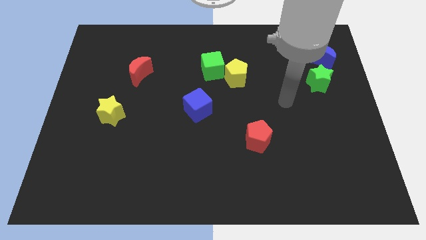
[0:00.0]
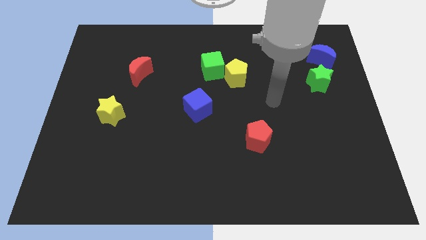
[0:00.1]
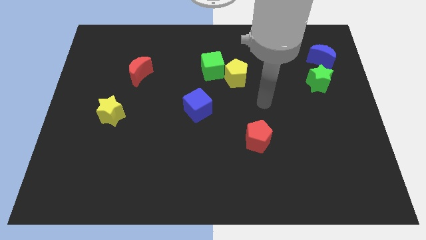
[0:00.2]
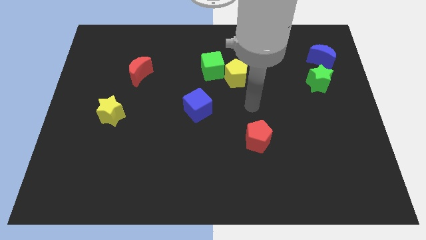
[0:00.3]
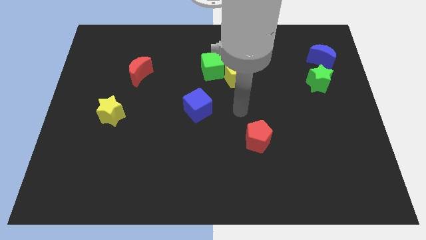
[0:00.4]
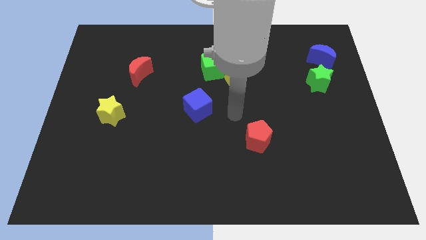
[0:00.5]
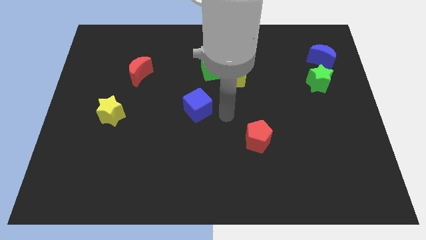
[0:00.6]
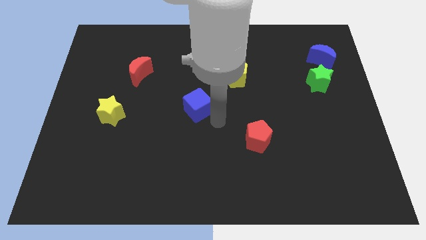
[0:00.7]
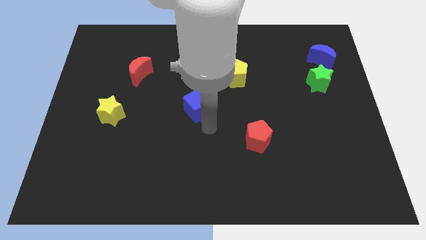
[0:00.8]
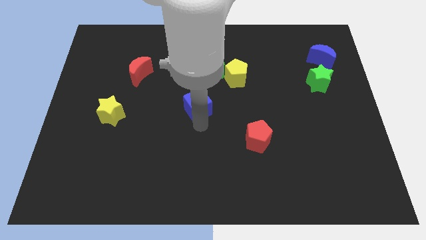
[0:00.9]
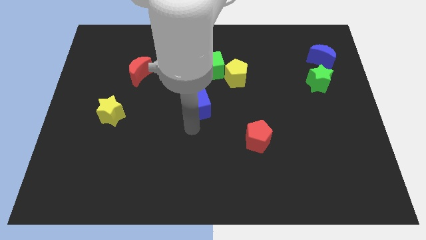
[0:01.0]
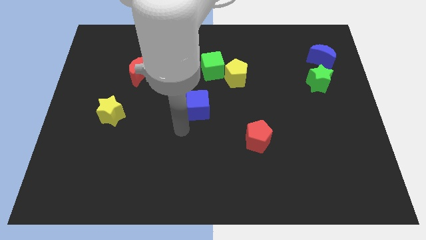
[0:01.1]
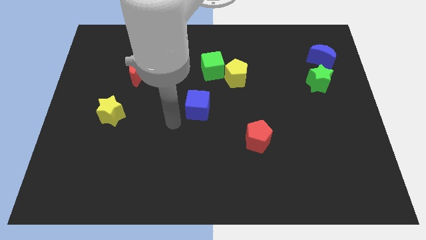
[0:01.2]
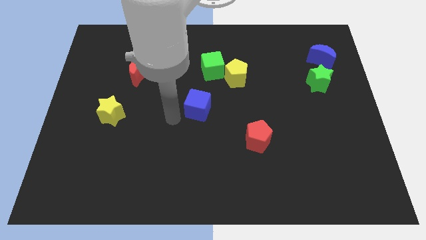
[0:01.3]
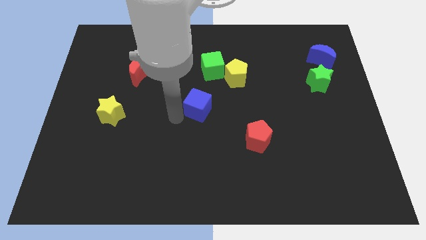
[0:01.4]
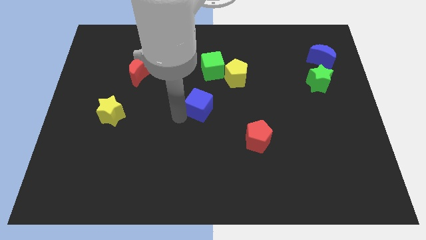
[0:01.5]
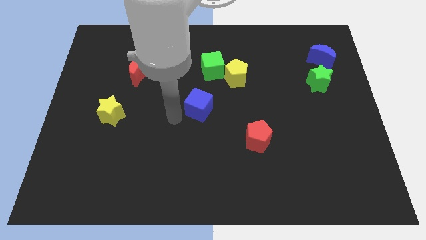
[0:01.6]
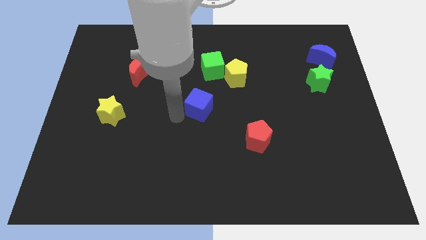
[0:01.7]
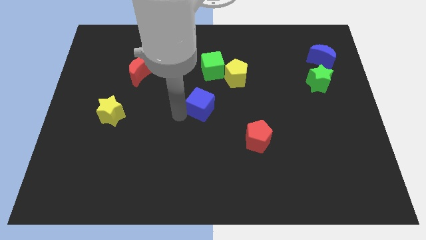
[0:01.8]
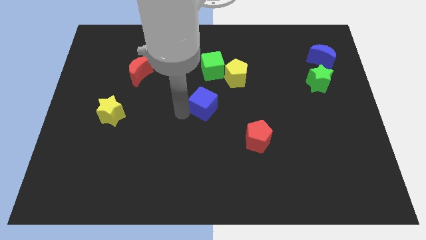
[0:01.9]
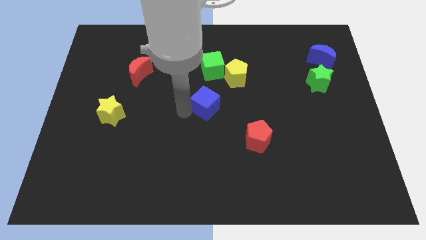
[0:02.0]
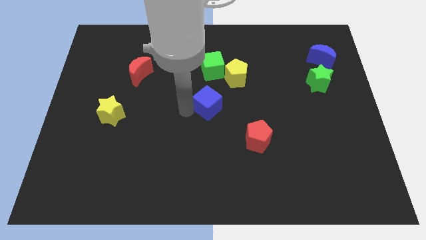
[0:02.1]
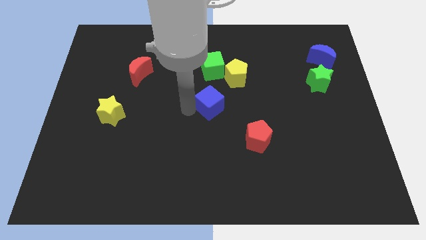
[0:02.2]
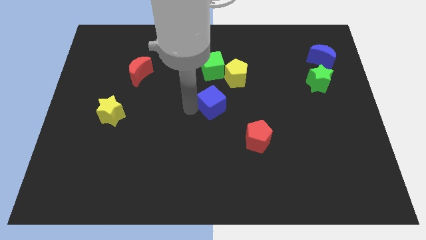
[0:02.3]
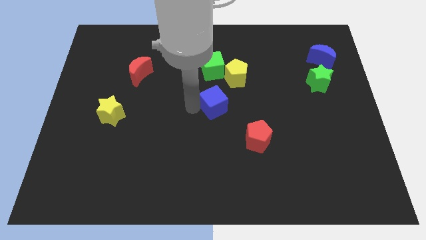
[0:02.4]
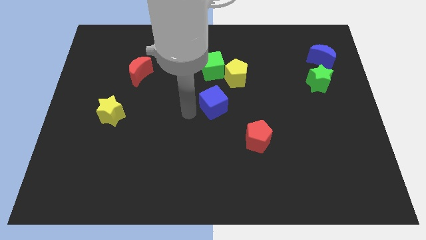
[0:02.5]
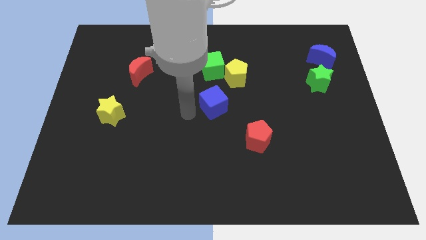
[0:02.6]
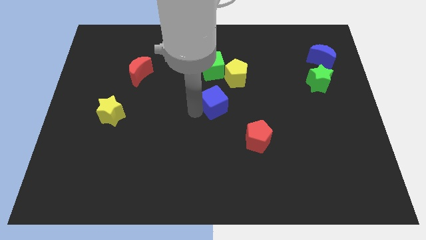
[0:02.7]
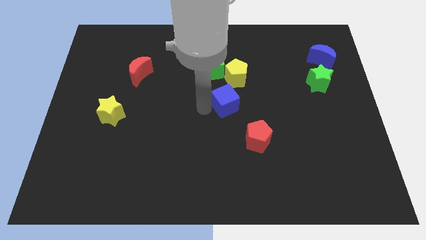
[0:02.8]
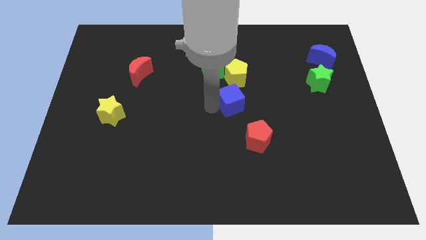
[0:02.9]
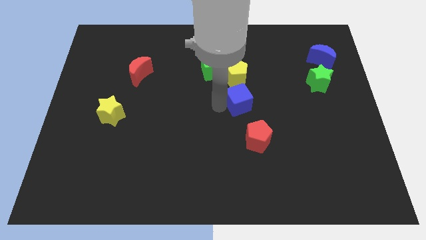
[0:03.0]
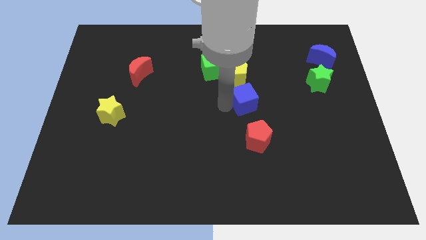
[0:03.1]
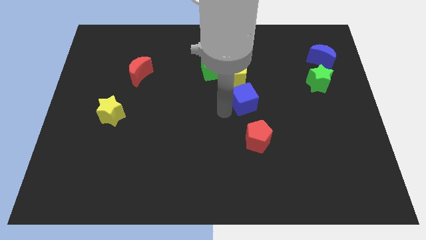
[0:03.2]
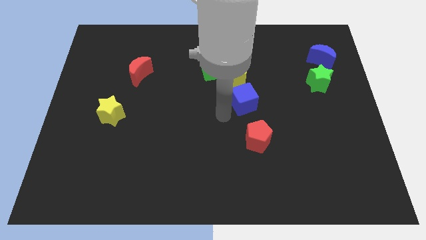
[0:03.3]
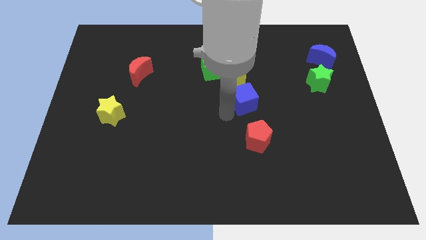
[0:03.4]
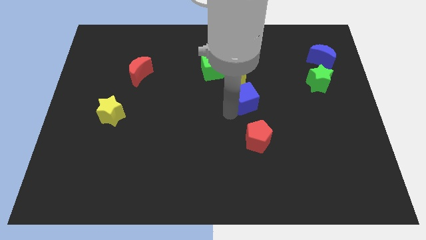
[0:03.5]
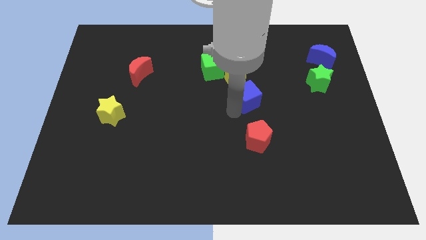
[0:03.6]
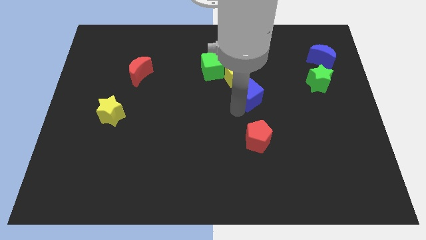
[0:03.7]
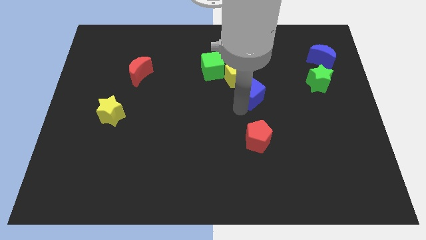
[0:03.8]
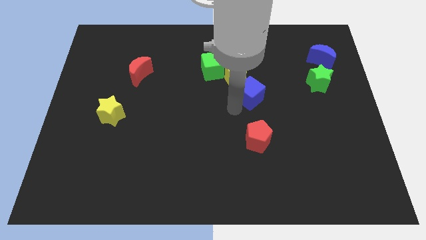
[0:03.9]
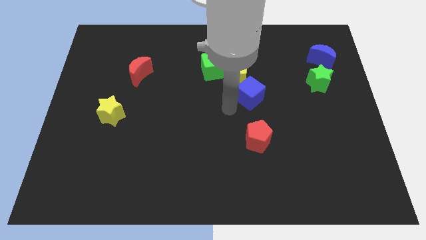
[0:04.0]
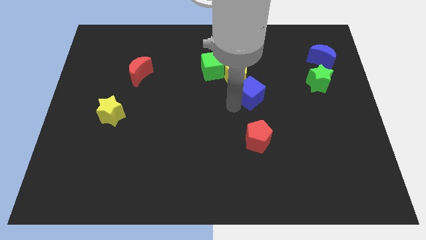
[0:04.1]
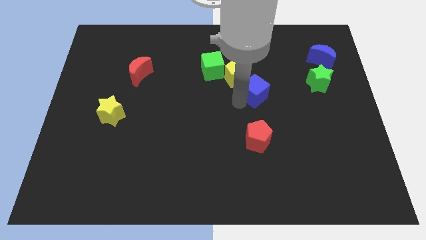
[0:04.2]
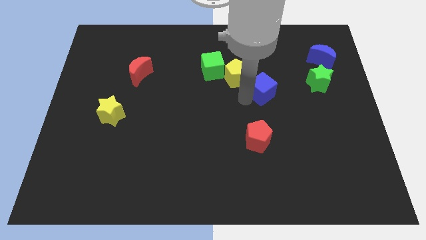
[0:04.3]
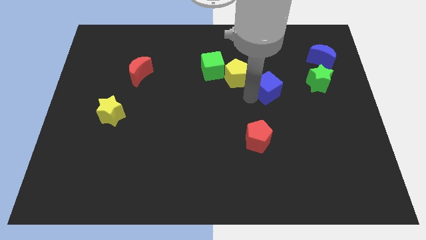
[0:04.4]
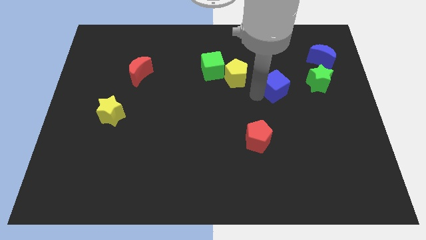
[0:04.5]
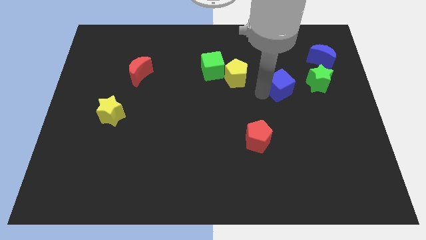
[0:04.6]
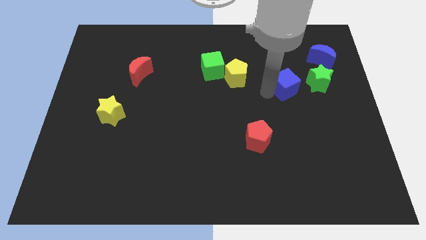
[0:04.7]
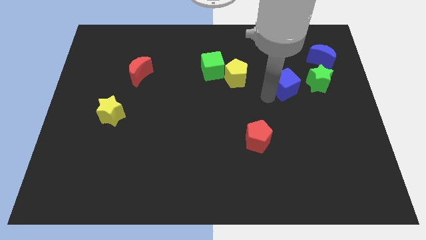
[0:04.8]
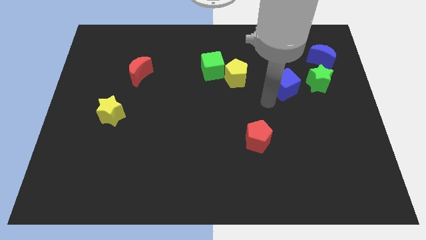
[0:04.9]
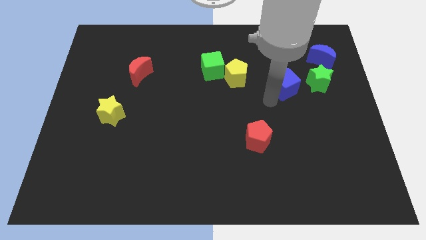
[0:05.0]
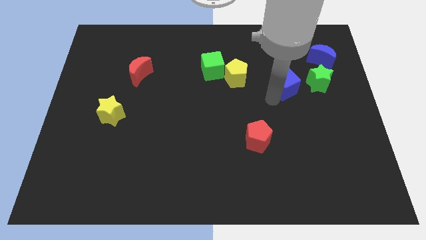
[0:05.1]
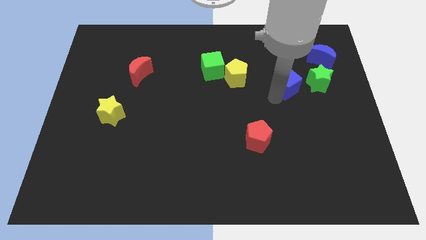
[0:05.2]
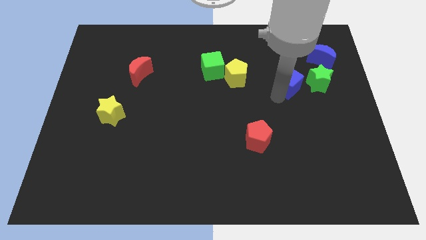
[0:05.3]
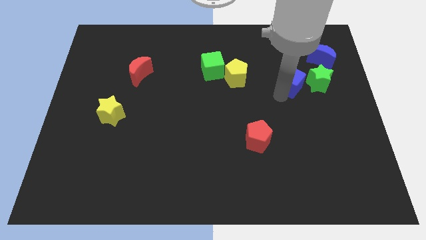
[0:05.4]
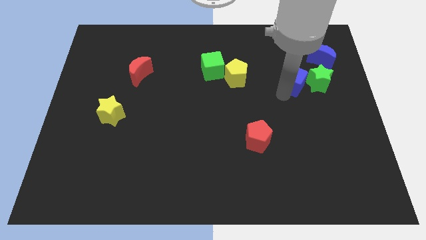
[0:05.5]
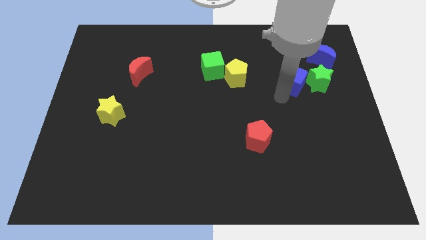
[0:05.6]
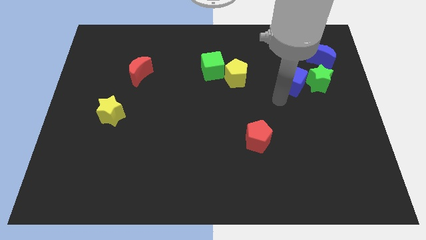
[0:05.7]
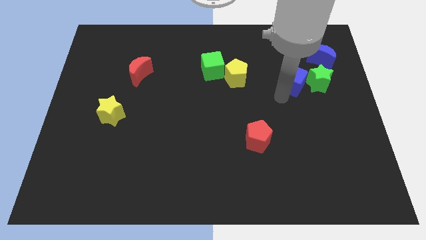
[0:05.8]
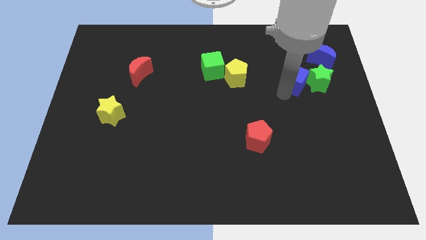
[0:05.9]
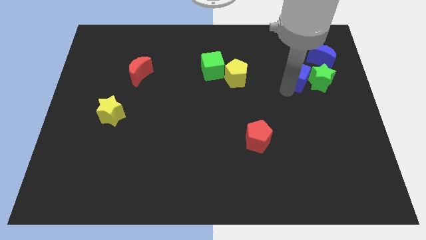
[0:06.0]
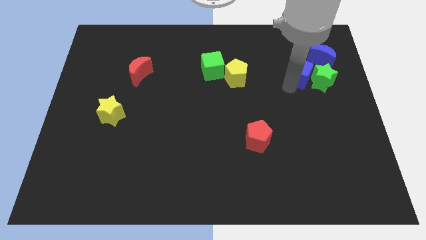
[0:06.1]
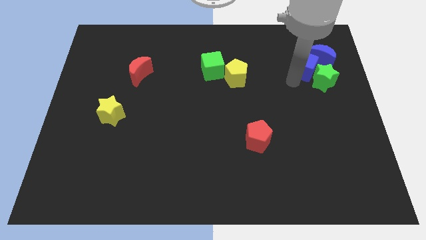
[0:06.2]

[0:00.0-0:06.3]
push the blue cube to the blue moon
